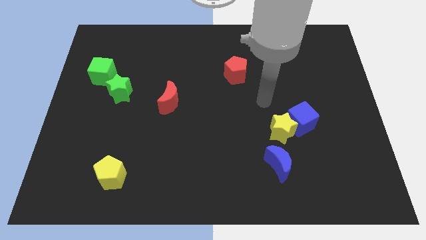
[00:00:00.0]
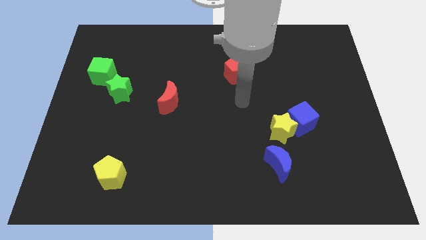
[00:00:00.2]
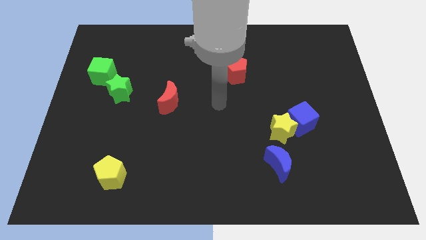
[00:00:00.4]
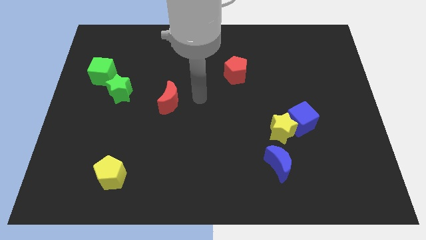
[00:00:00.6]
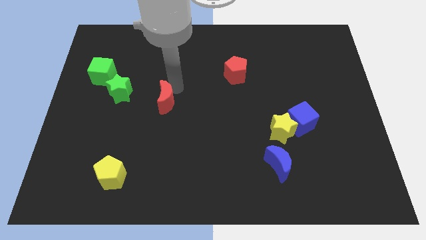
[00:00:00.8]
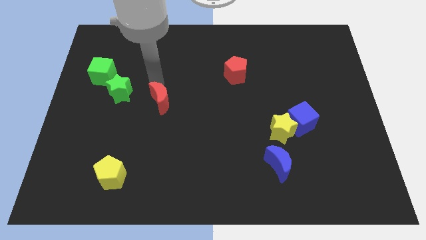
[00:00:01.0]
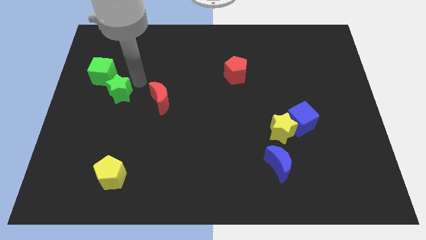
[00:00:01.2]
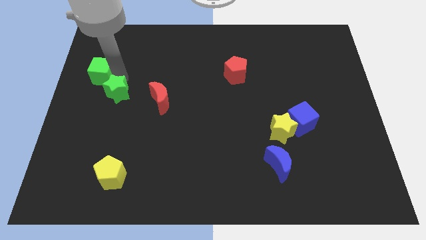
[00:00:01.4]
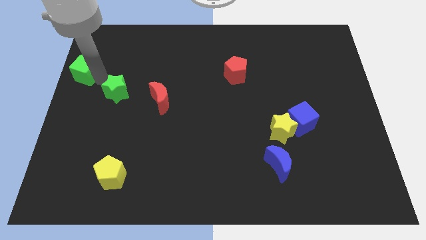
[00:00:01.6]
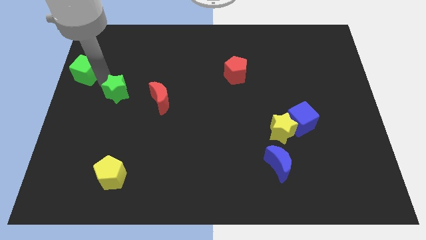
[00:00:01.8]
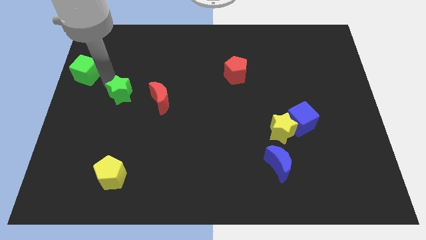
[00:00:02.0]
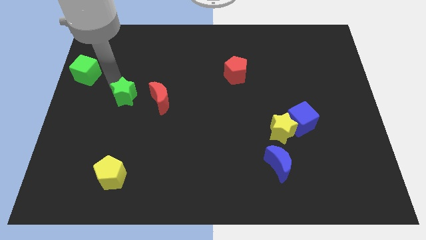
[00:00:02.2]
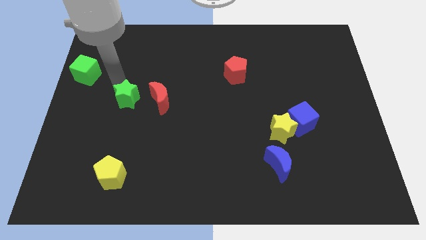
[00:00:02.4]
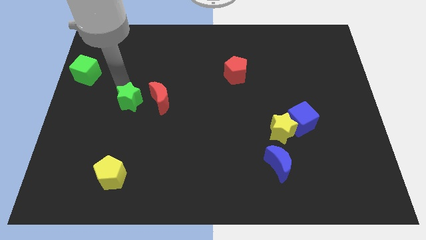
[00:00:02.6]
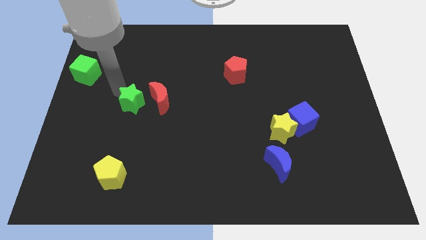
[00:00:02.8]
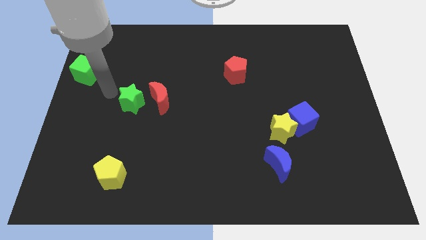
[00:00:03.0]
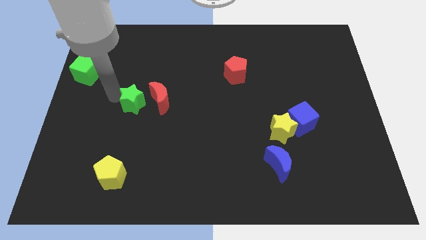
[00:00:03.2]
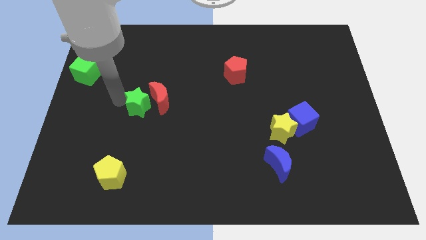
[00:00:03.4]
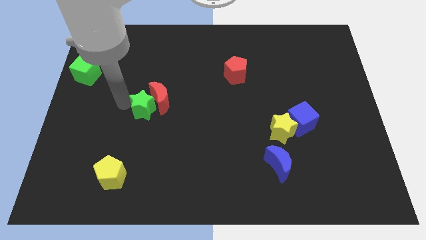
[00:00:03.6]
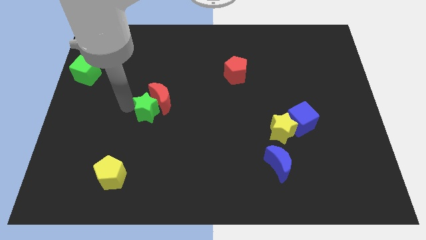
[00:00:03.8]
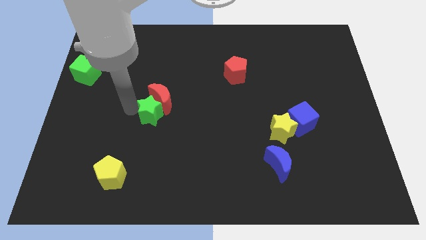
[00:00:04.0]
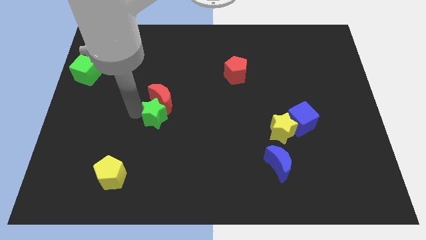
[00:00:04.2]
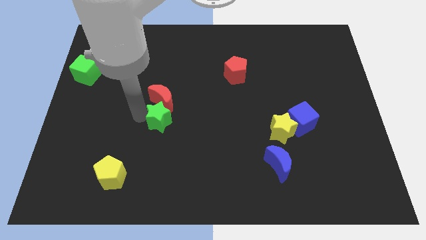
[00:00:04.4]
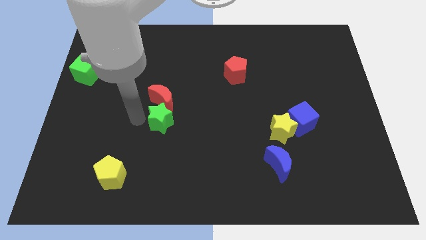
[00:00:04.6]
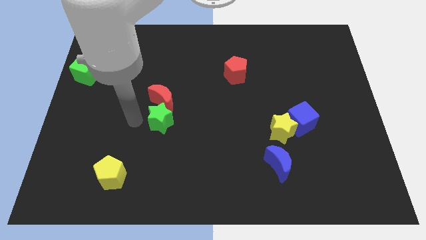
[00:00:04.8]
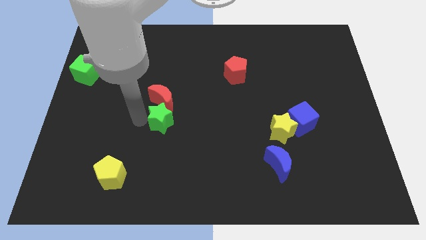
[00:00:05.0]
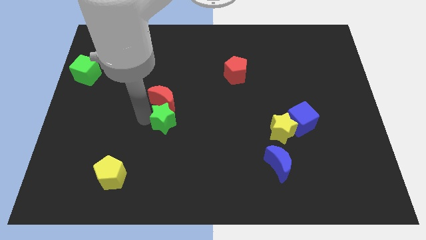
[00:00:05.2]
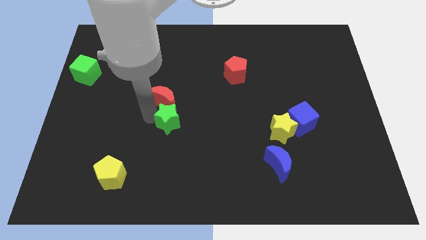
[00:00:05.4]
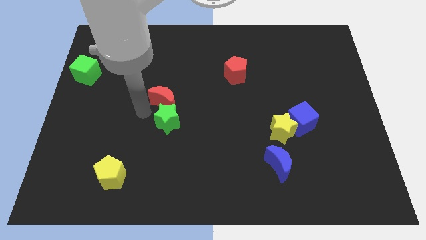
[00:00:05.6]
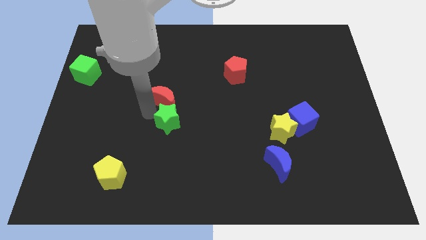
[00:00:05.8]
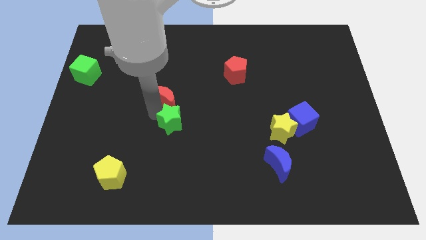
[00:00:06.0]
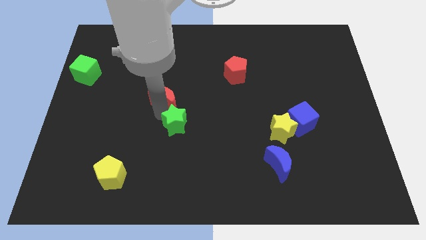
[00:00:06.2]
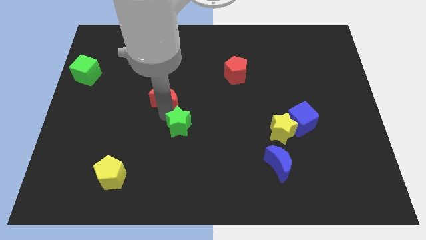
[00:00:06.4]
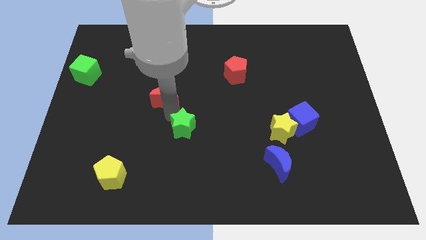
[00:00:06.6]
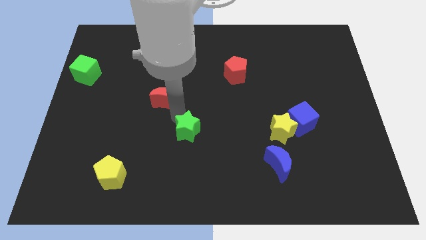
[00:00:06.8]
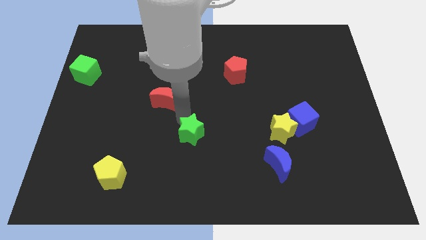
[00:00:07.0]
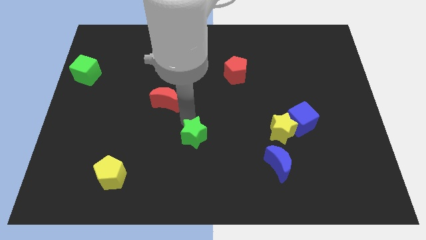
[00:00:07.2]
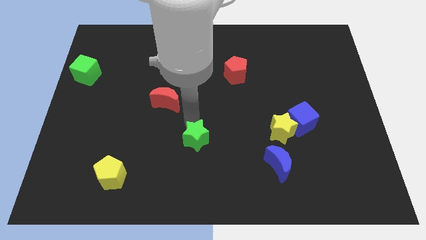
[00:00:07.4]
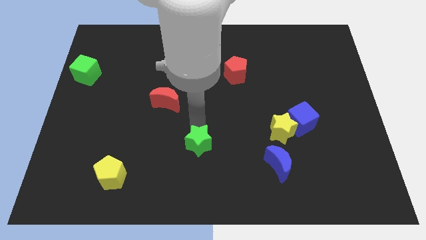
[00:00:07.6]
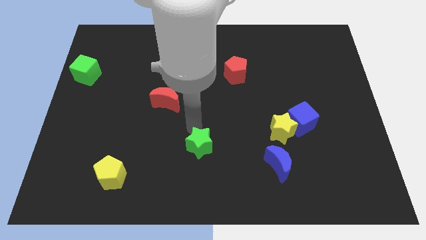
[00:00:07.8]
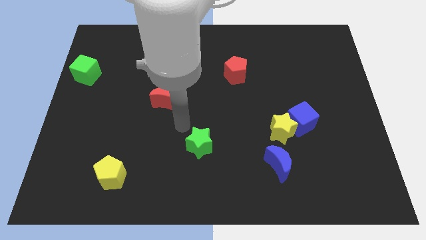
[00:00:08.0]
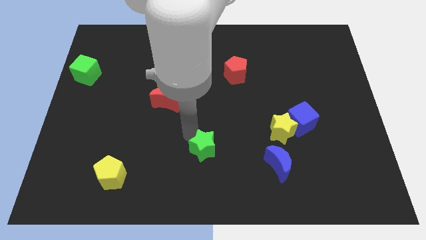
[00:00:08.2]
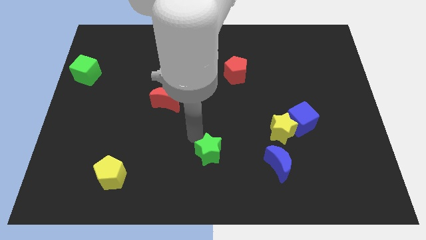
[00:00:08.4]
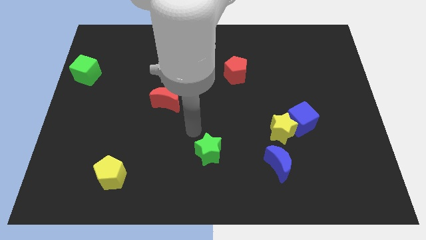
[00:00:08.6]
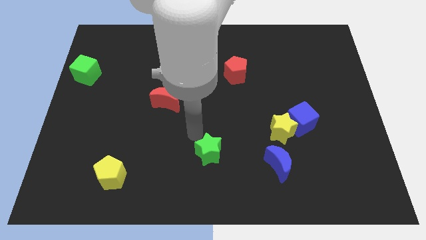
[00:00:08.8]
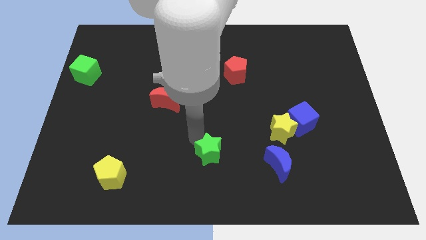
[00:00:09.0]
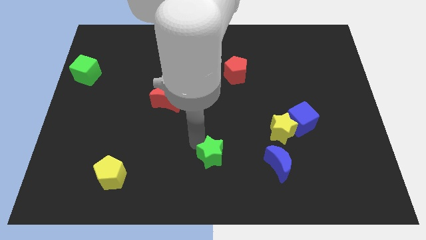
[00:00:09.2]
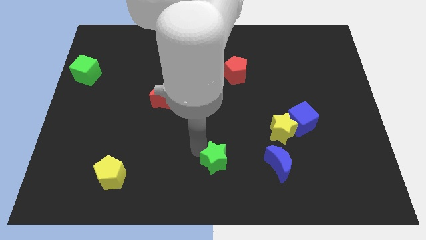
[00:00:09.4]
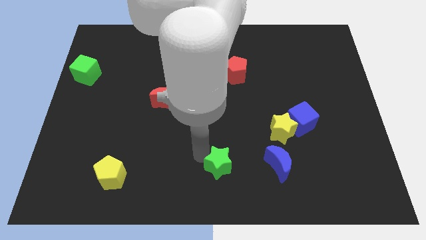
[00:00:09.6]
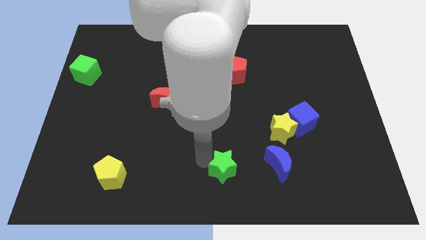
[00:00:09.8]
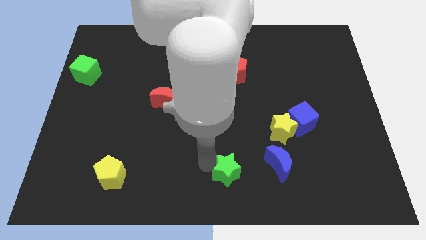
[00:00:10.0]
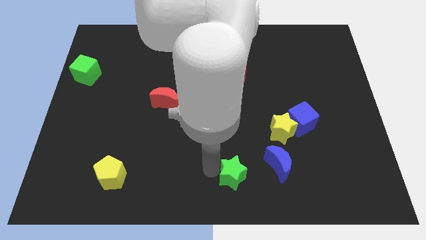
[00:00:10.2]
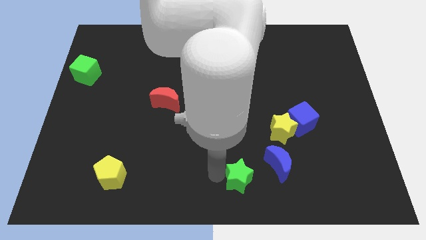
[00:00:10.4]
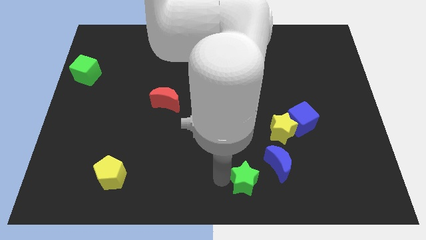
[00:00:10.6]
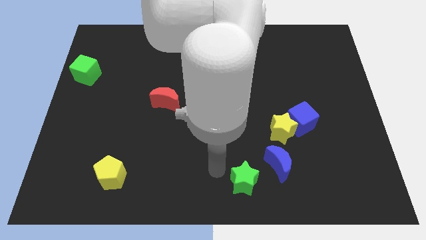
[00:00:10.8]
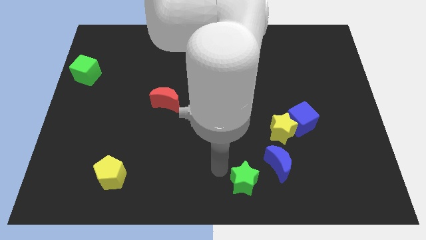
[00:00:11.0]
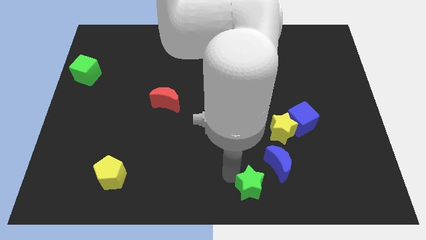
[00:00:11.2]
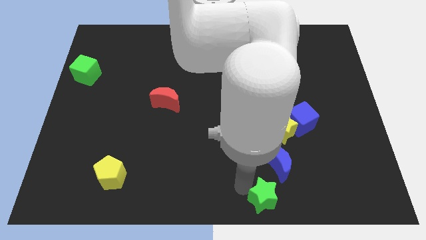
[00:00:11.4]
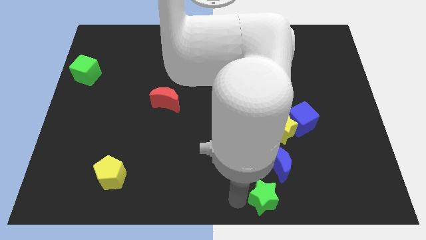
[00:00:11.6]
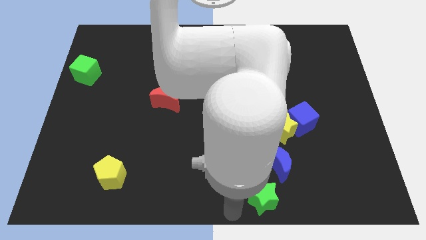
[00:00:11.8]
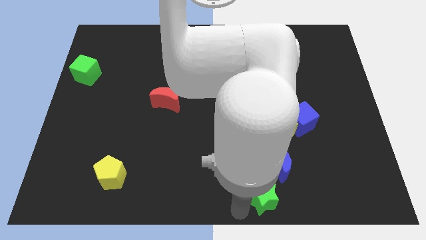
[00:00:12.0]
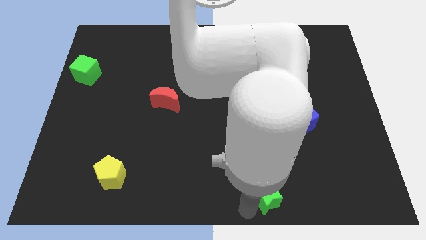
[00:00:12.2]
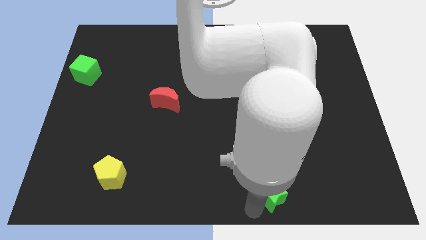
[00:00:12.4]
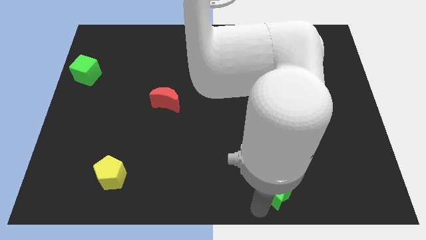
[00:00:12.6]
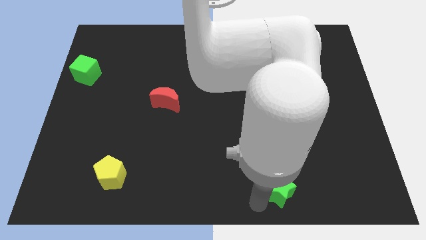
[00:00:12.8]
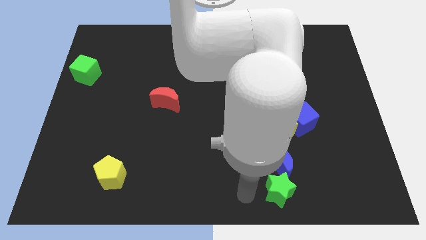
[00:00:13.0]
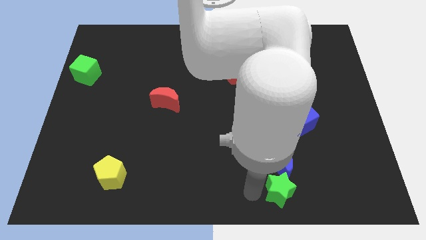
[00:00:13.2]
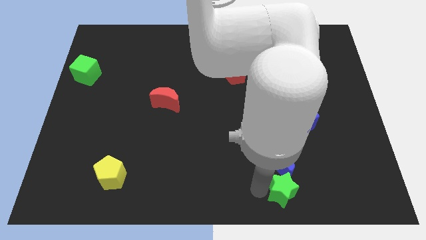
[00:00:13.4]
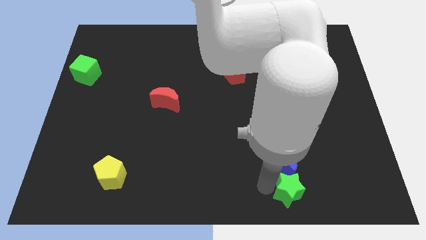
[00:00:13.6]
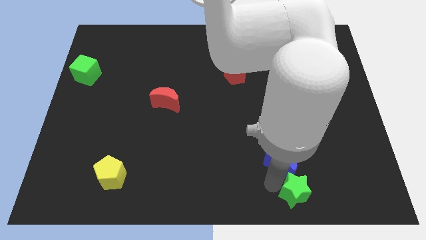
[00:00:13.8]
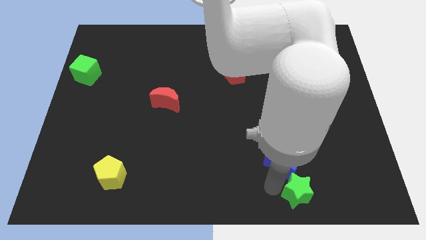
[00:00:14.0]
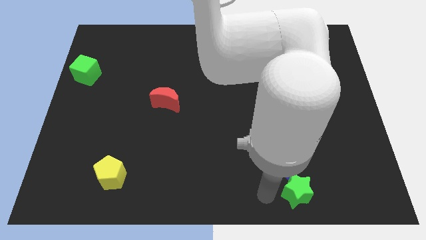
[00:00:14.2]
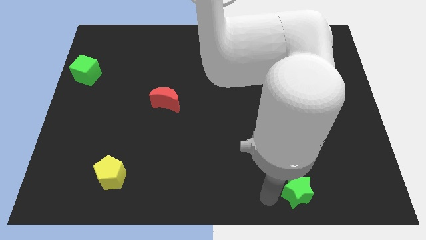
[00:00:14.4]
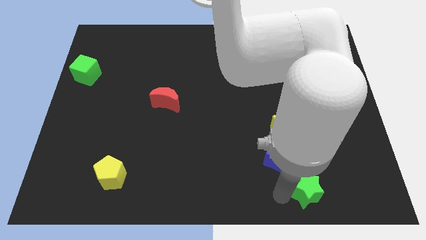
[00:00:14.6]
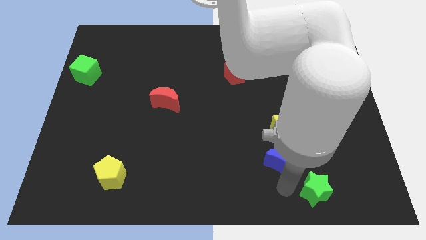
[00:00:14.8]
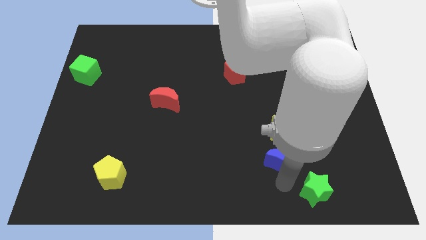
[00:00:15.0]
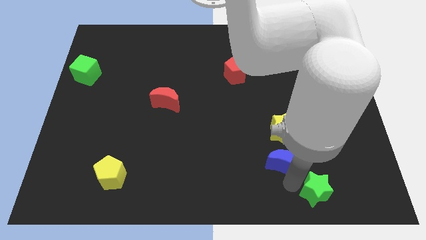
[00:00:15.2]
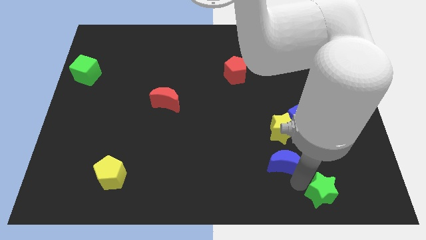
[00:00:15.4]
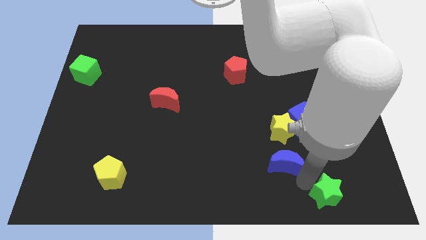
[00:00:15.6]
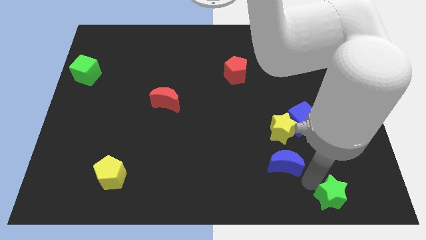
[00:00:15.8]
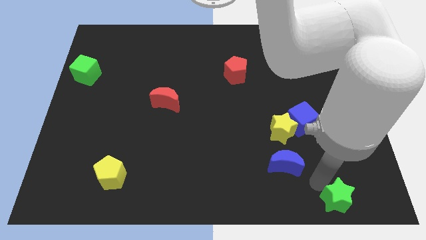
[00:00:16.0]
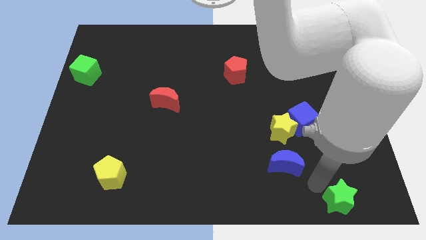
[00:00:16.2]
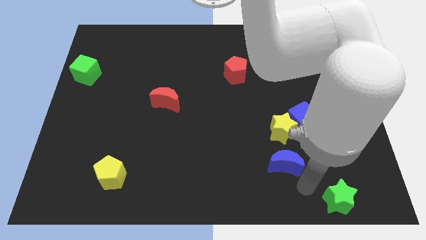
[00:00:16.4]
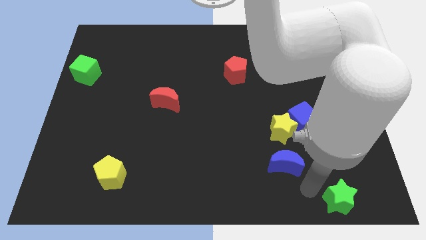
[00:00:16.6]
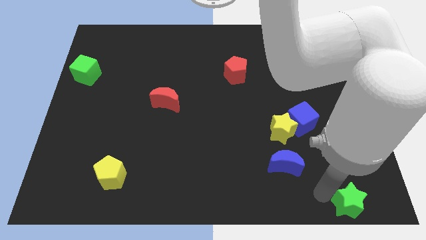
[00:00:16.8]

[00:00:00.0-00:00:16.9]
move the green star to the lower right corner
